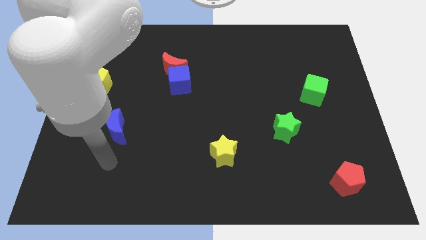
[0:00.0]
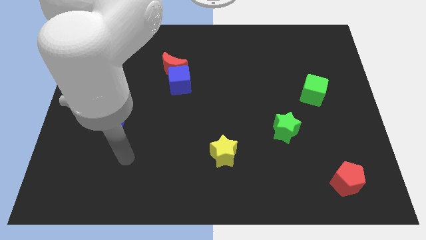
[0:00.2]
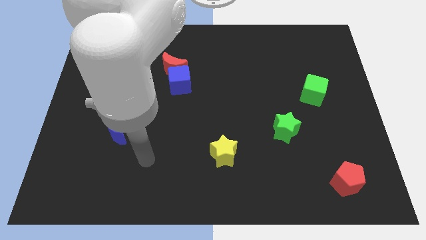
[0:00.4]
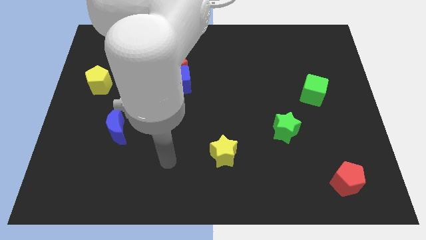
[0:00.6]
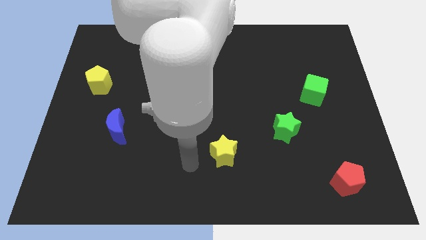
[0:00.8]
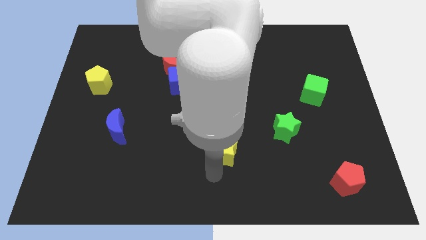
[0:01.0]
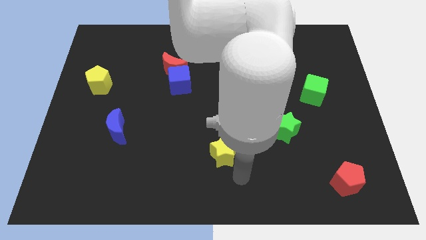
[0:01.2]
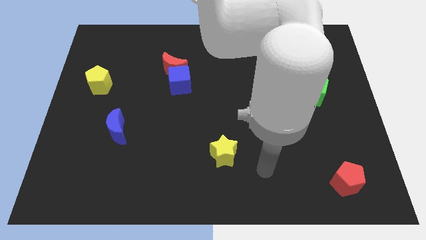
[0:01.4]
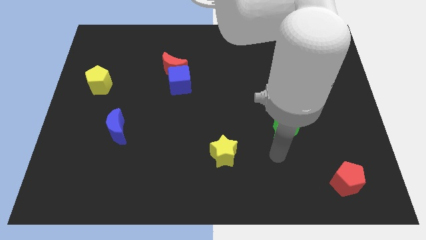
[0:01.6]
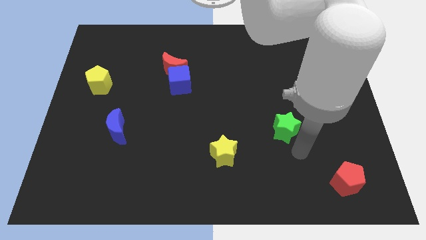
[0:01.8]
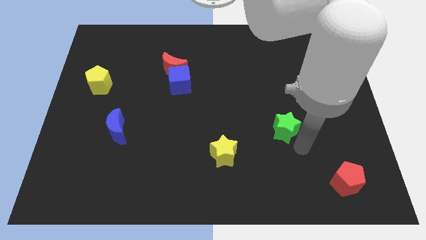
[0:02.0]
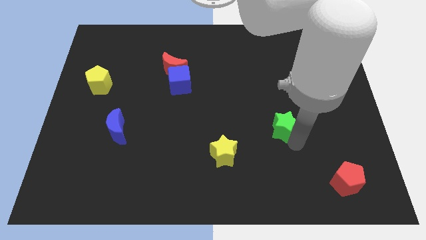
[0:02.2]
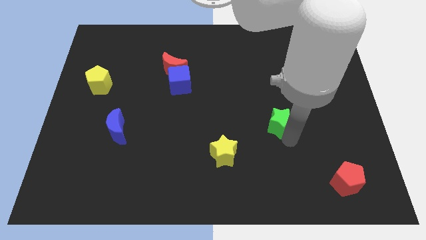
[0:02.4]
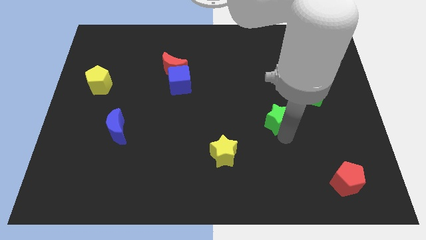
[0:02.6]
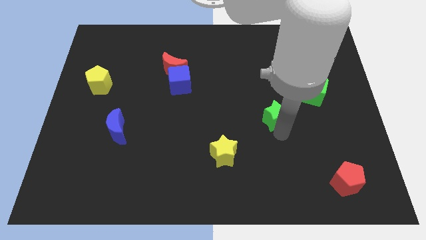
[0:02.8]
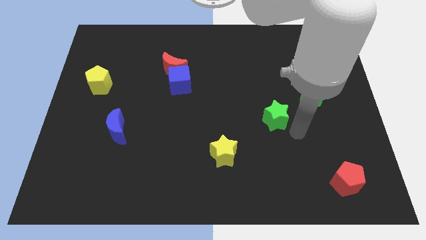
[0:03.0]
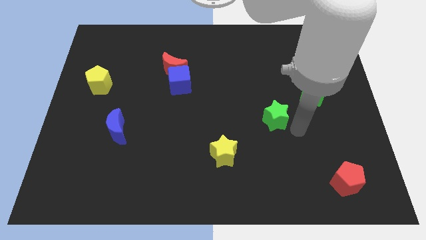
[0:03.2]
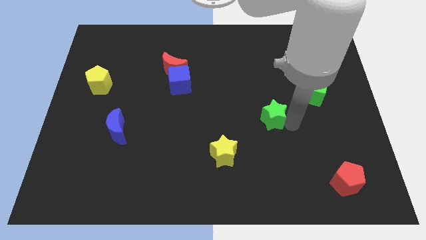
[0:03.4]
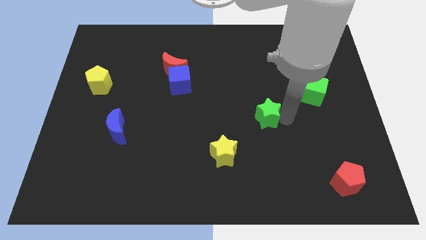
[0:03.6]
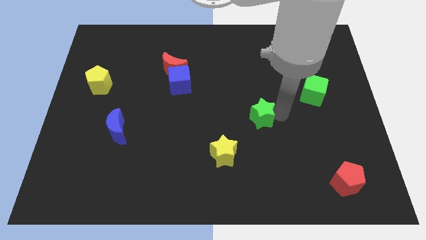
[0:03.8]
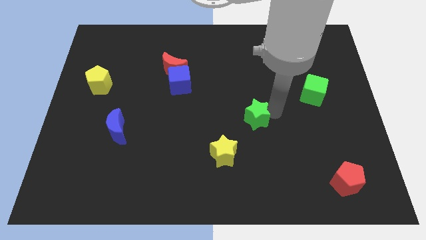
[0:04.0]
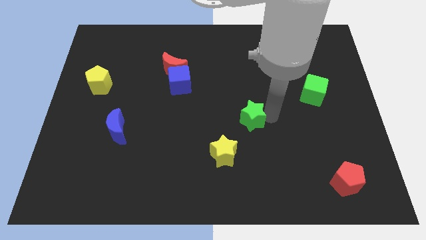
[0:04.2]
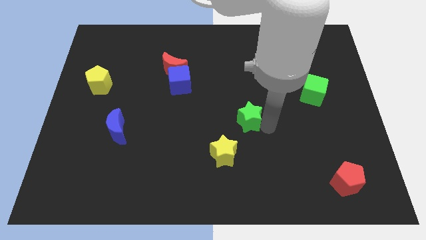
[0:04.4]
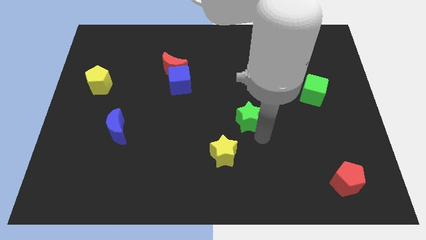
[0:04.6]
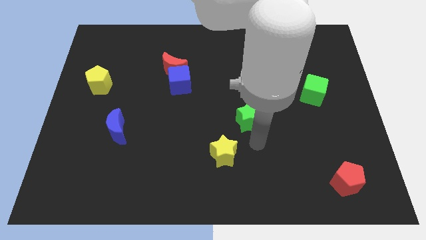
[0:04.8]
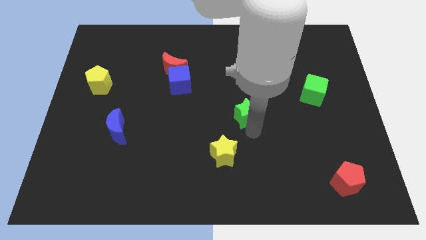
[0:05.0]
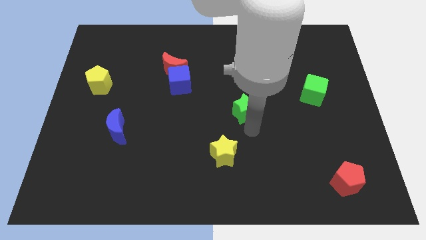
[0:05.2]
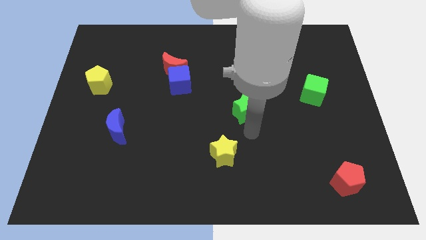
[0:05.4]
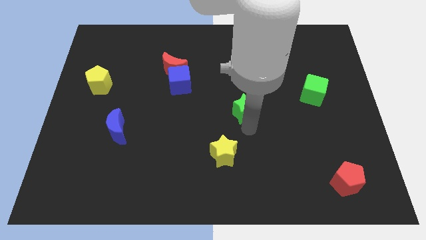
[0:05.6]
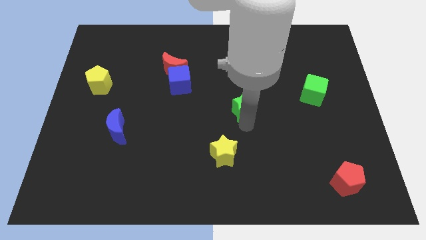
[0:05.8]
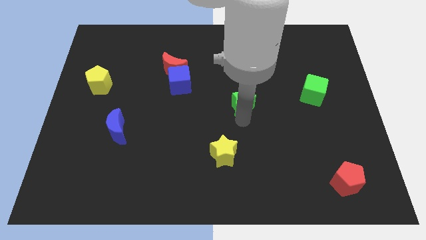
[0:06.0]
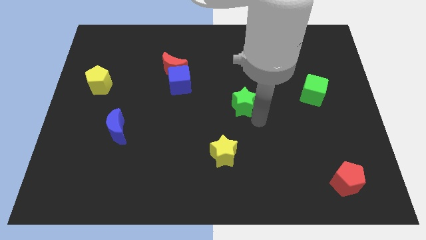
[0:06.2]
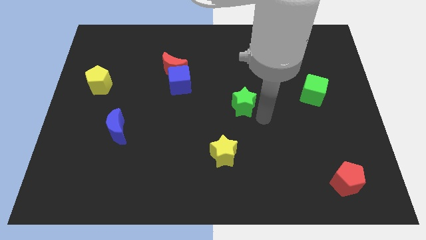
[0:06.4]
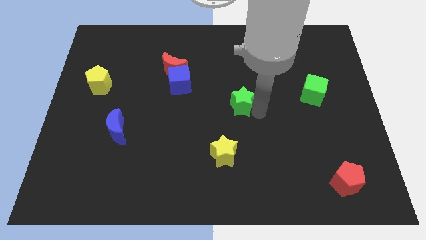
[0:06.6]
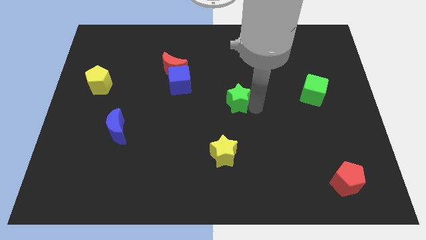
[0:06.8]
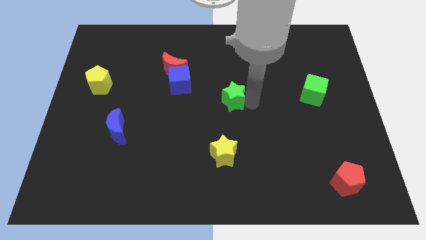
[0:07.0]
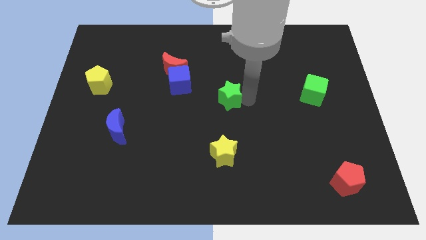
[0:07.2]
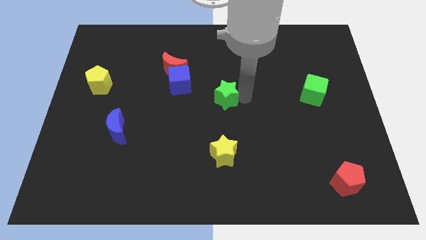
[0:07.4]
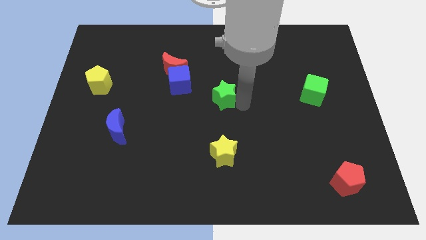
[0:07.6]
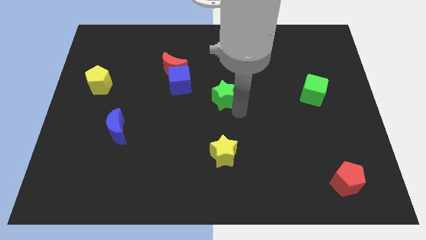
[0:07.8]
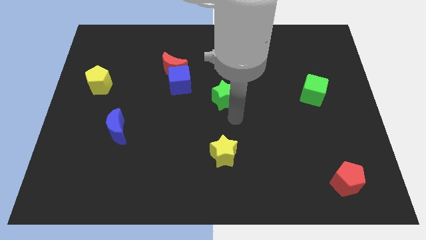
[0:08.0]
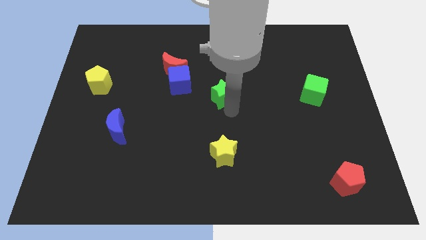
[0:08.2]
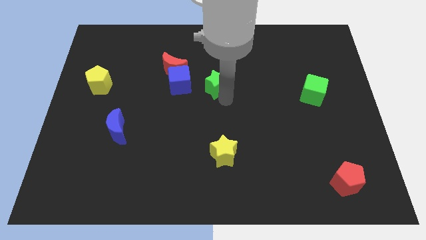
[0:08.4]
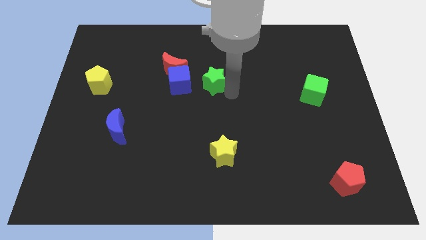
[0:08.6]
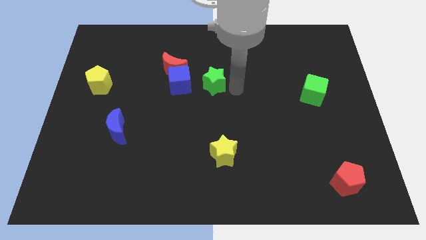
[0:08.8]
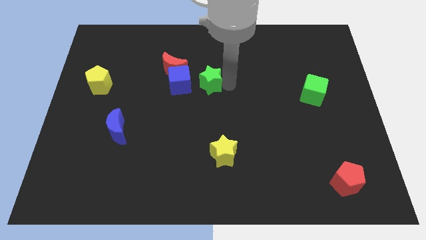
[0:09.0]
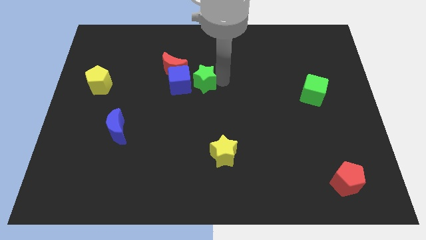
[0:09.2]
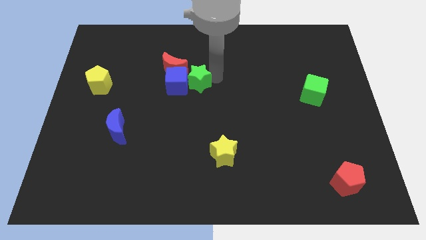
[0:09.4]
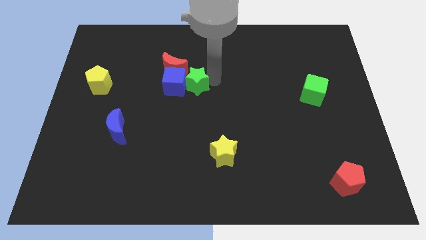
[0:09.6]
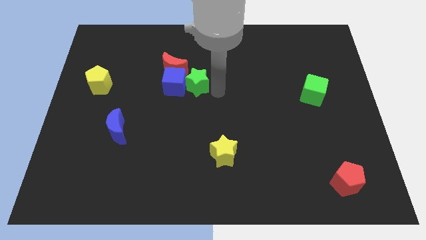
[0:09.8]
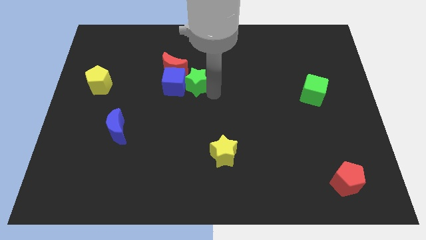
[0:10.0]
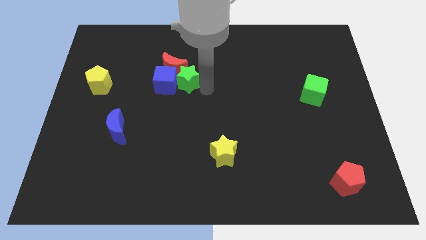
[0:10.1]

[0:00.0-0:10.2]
slide the green star towards the red moon

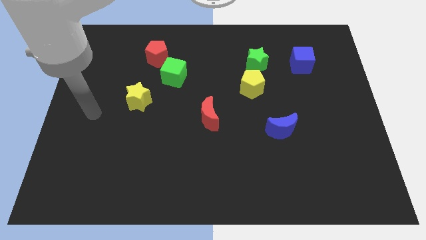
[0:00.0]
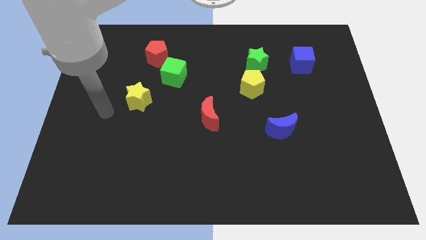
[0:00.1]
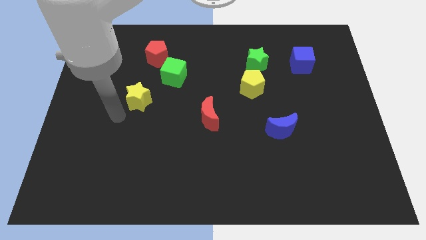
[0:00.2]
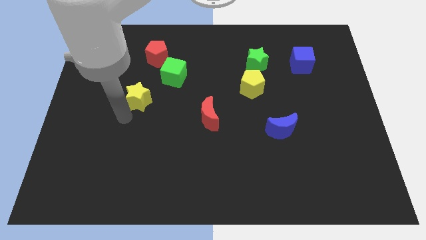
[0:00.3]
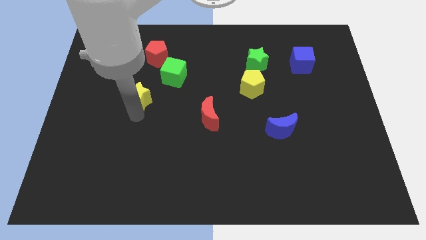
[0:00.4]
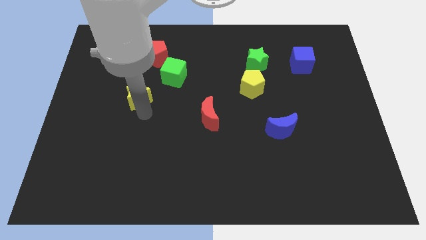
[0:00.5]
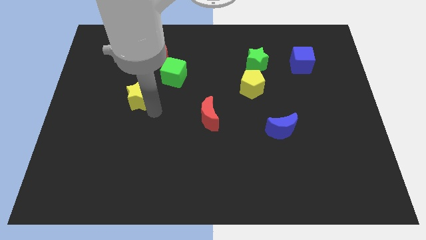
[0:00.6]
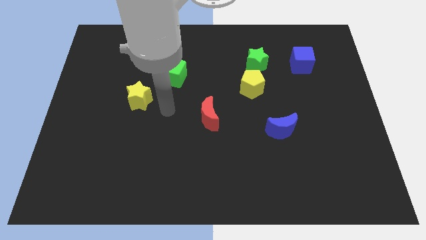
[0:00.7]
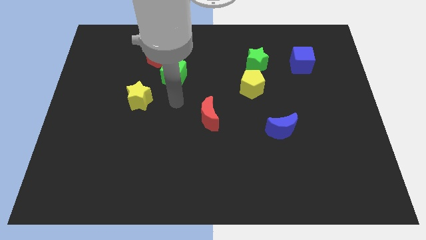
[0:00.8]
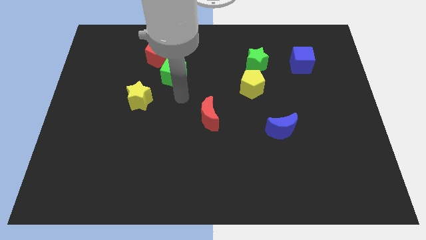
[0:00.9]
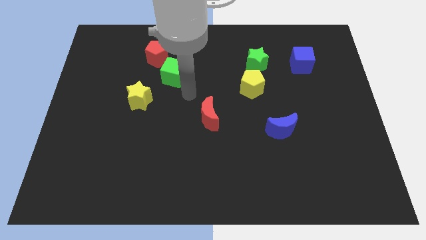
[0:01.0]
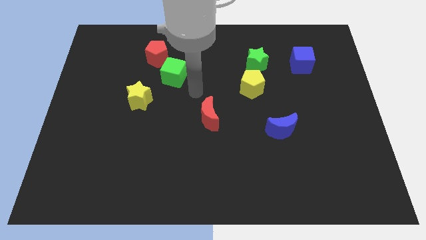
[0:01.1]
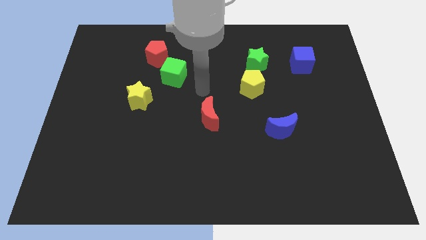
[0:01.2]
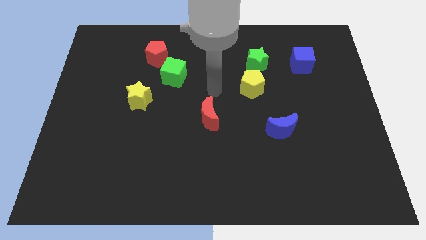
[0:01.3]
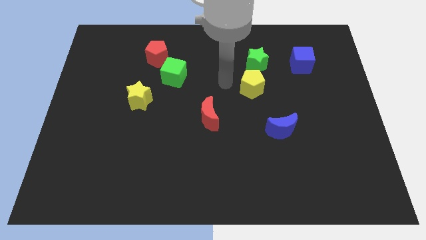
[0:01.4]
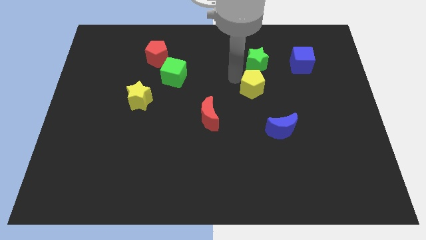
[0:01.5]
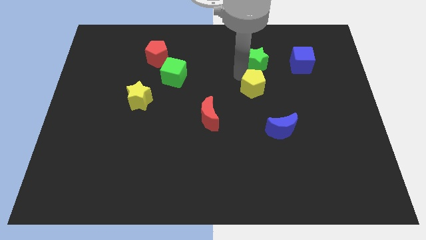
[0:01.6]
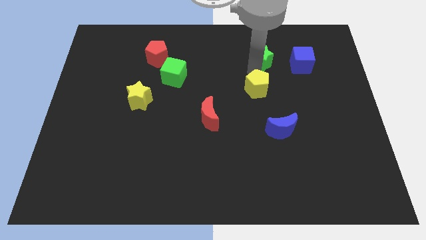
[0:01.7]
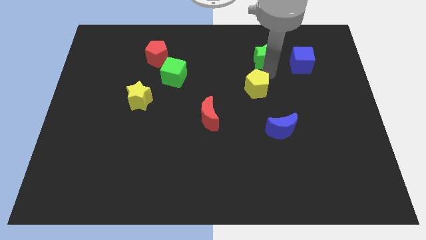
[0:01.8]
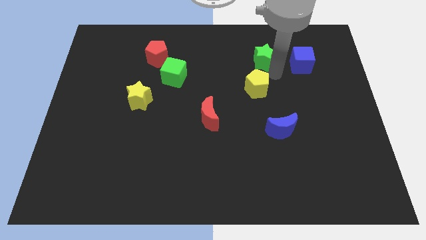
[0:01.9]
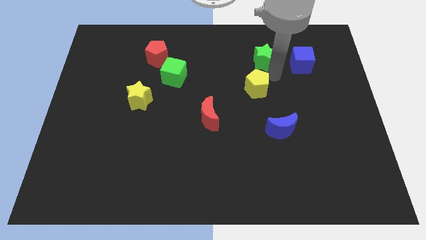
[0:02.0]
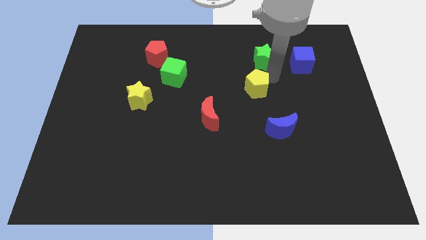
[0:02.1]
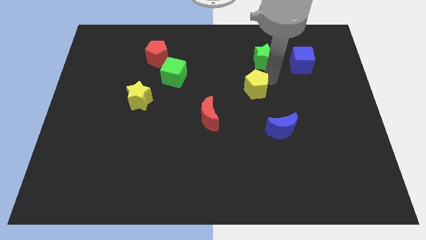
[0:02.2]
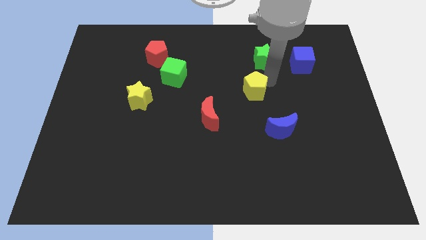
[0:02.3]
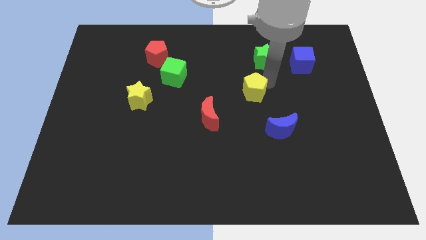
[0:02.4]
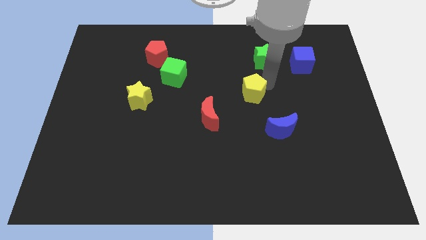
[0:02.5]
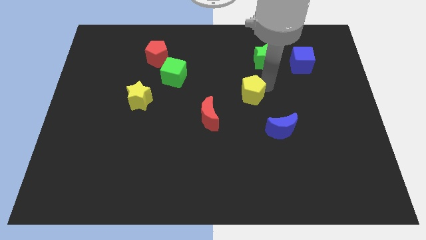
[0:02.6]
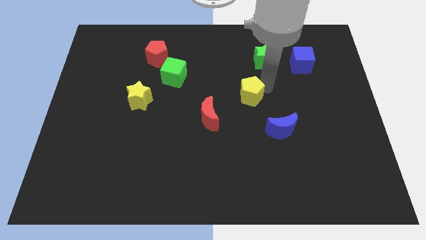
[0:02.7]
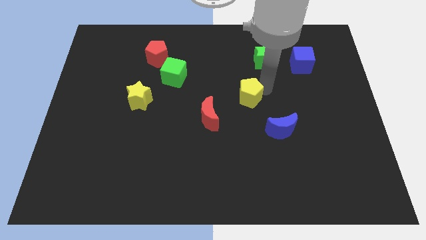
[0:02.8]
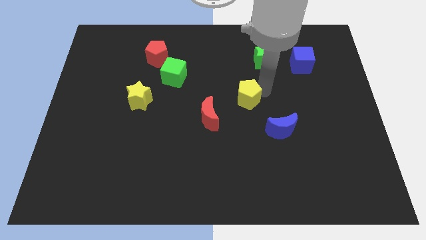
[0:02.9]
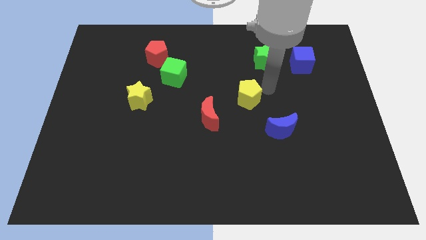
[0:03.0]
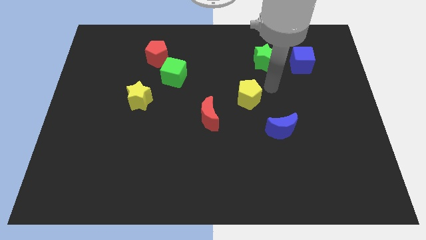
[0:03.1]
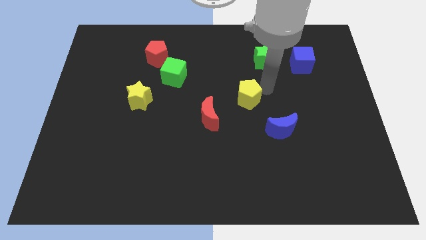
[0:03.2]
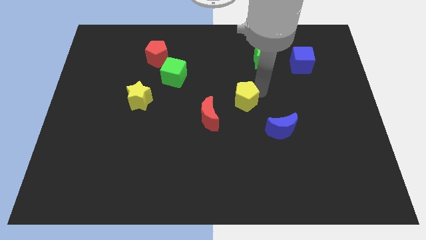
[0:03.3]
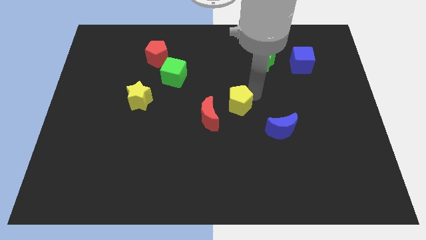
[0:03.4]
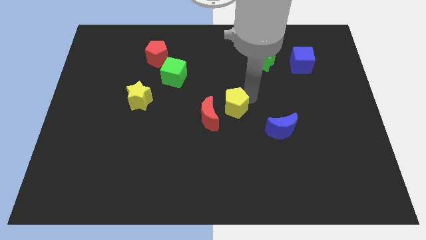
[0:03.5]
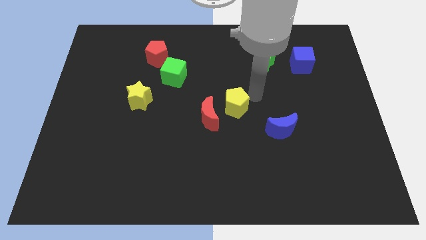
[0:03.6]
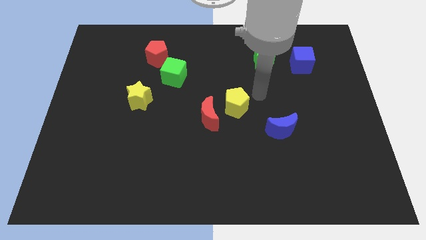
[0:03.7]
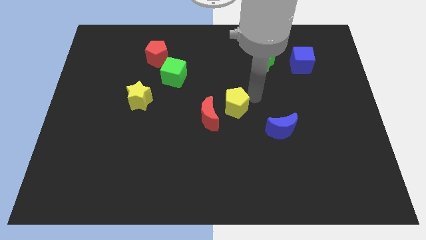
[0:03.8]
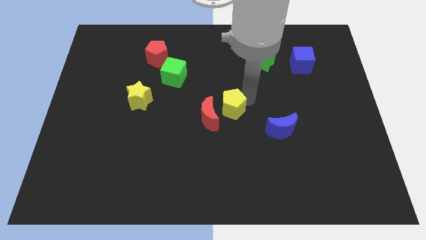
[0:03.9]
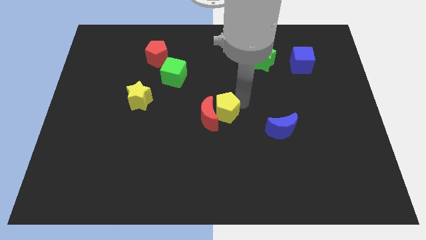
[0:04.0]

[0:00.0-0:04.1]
put the yellow pentagon close to the red moon
